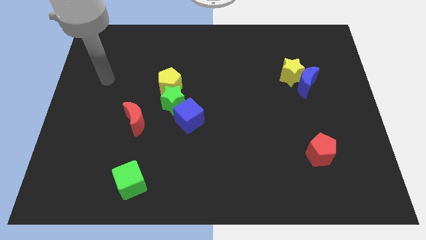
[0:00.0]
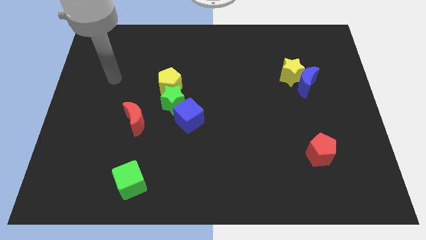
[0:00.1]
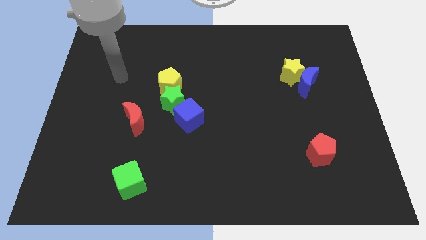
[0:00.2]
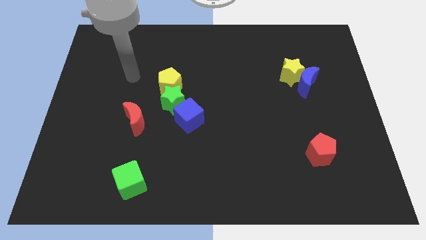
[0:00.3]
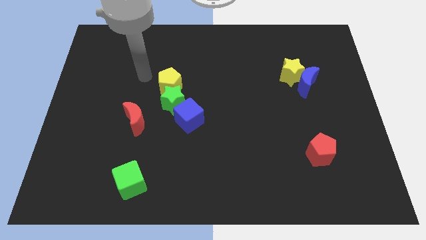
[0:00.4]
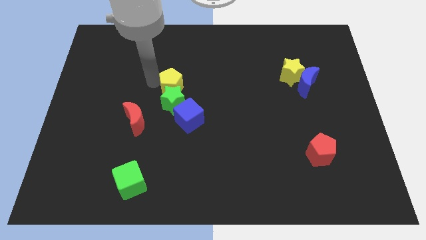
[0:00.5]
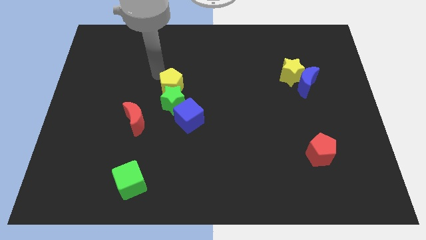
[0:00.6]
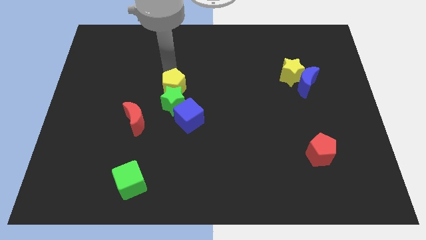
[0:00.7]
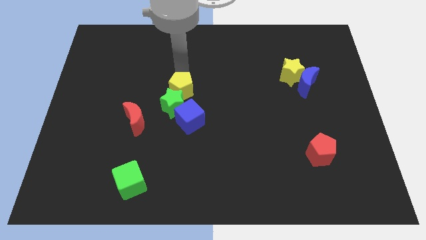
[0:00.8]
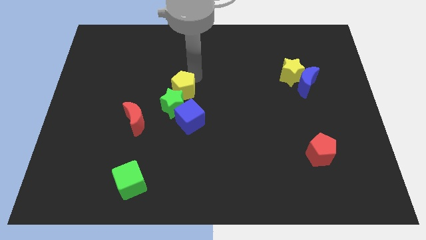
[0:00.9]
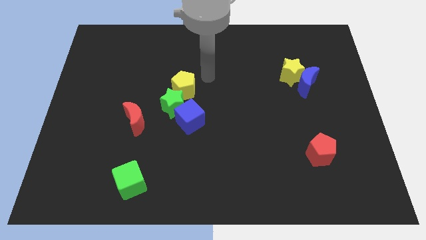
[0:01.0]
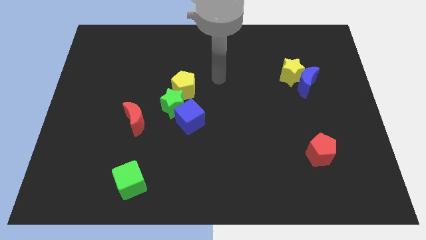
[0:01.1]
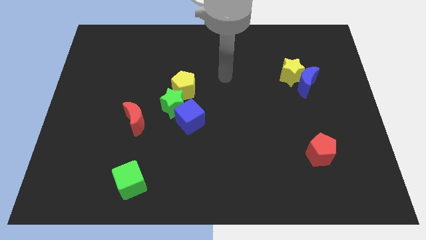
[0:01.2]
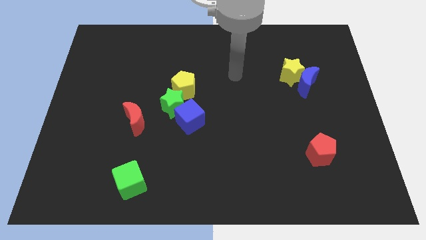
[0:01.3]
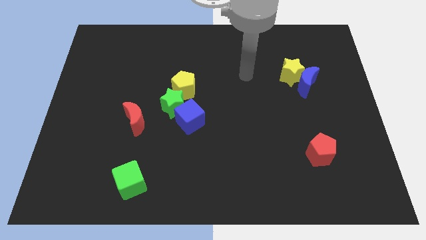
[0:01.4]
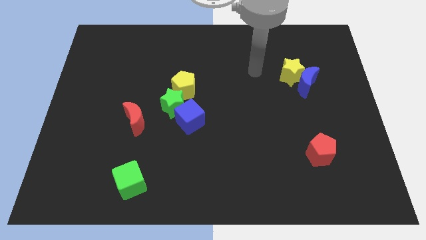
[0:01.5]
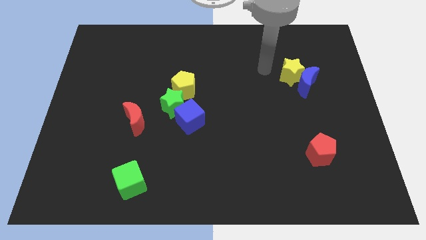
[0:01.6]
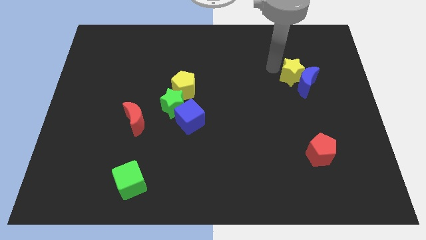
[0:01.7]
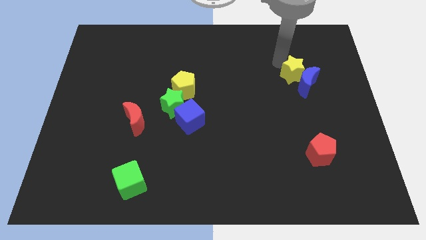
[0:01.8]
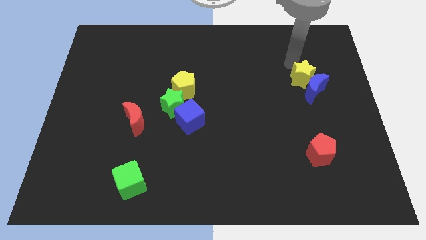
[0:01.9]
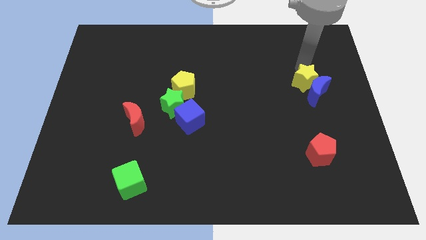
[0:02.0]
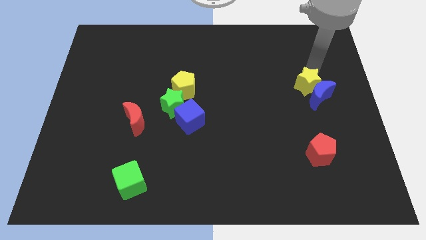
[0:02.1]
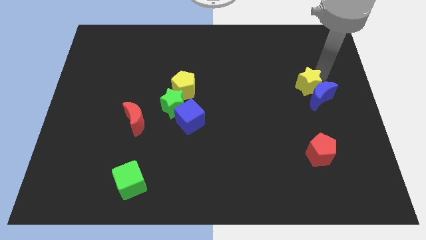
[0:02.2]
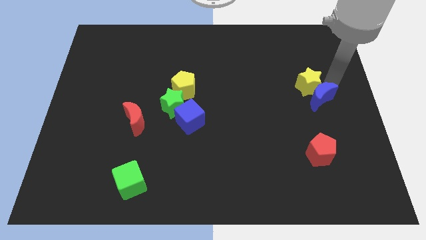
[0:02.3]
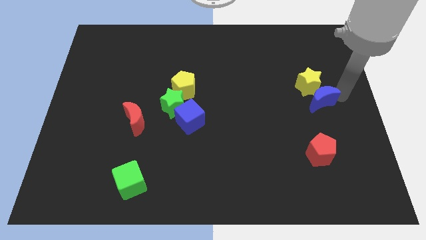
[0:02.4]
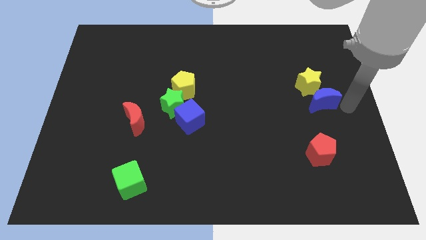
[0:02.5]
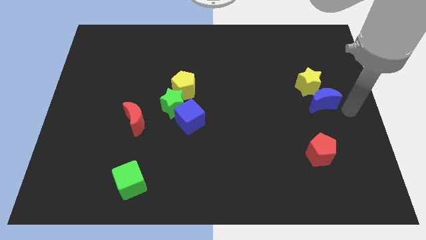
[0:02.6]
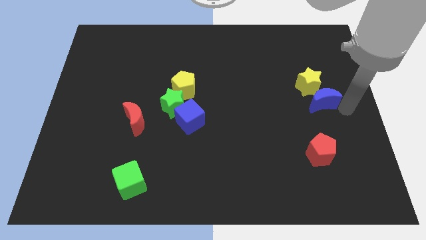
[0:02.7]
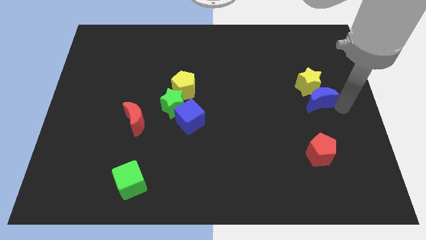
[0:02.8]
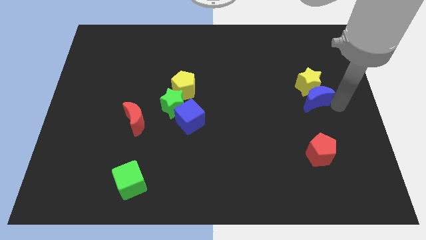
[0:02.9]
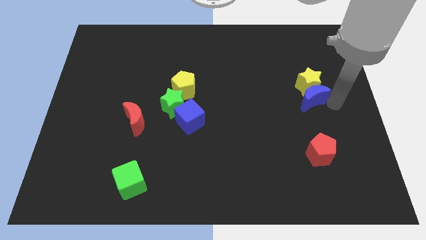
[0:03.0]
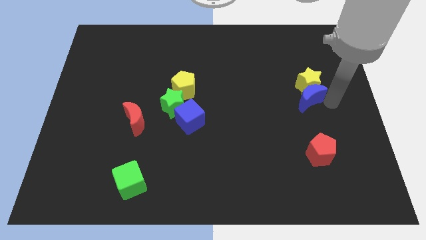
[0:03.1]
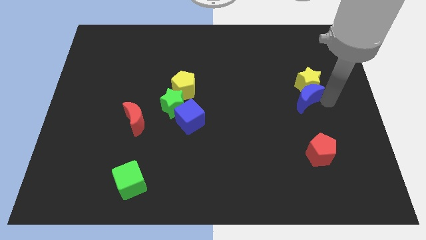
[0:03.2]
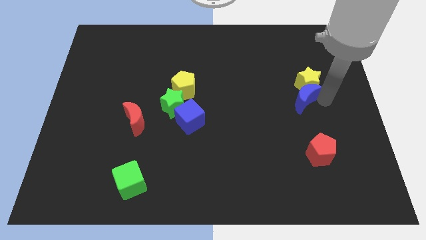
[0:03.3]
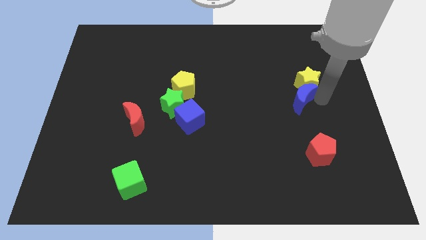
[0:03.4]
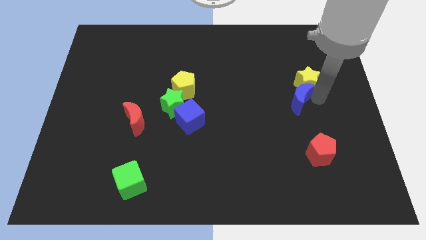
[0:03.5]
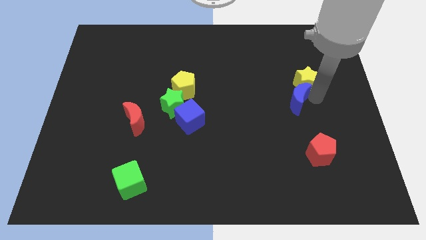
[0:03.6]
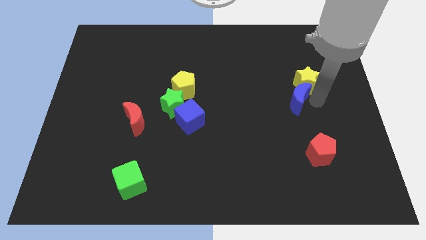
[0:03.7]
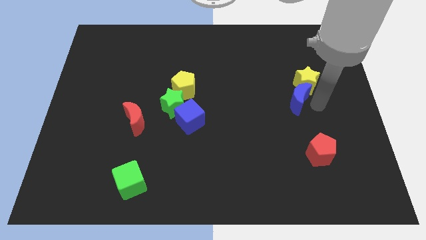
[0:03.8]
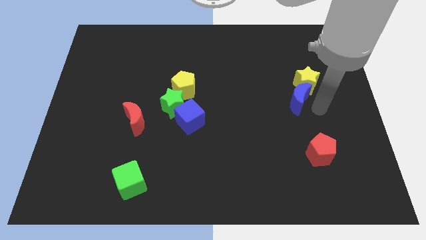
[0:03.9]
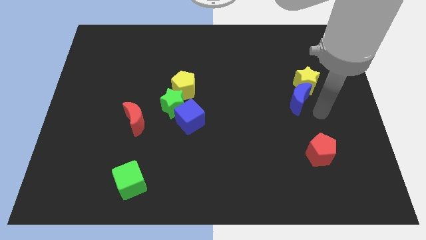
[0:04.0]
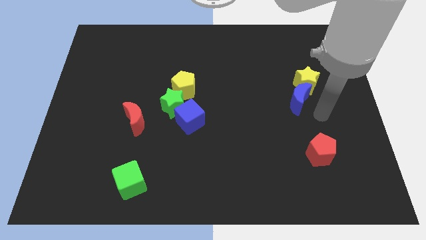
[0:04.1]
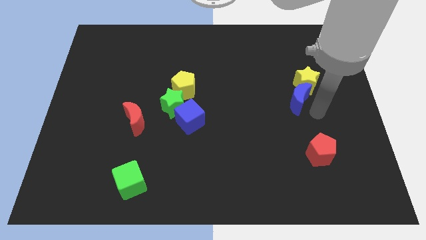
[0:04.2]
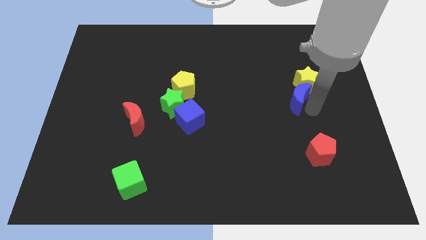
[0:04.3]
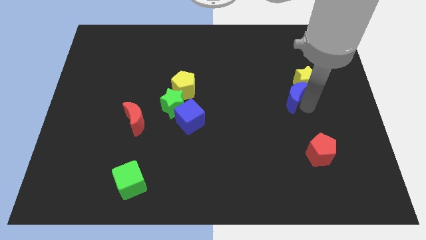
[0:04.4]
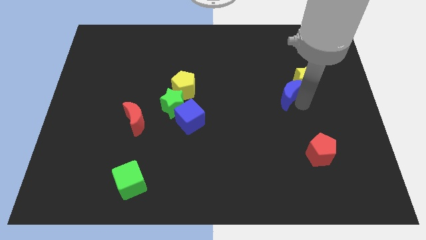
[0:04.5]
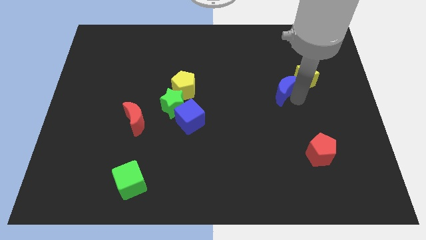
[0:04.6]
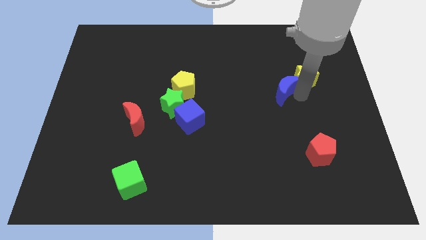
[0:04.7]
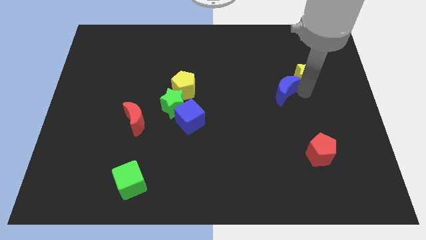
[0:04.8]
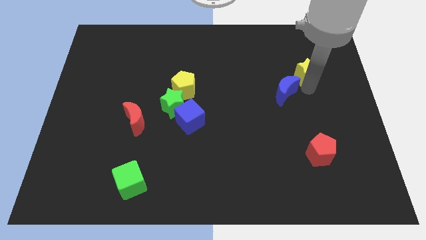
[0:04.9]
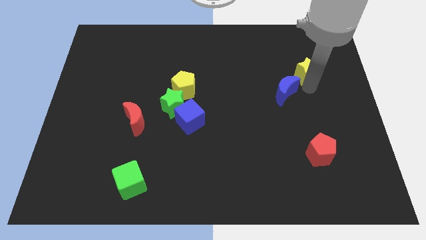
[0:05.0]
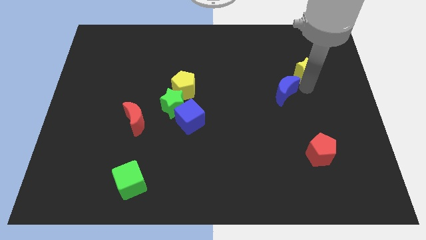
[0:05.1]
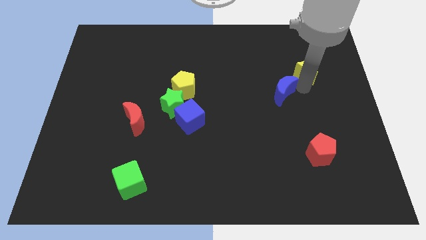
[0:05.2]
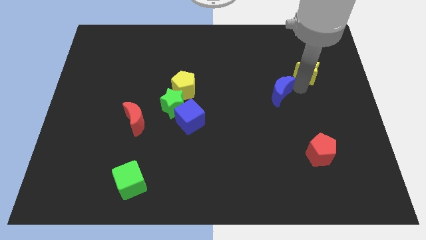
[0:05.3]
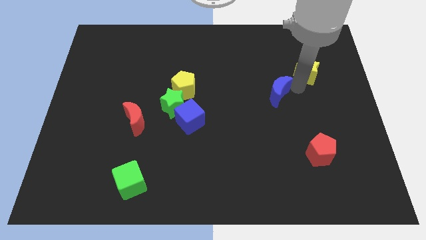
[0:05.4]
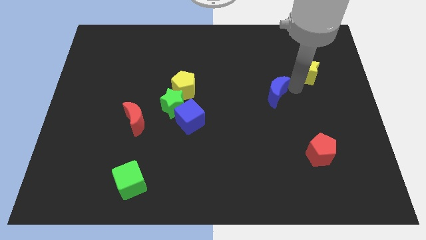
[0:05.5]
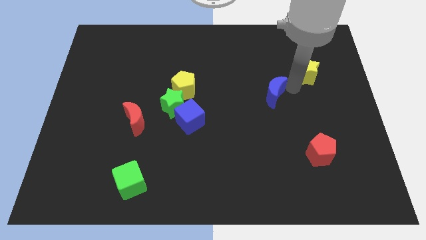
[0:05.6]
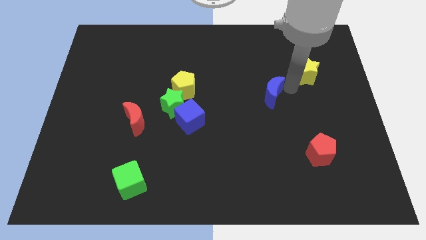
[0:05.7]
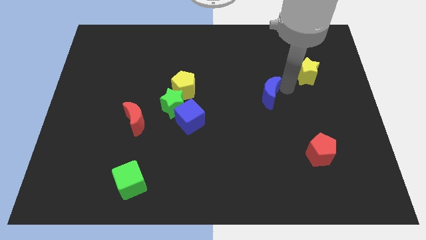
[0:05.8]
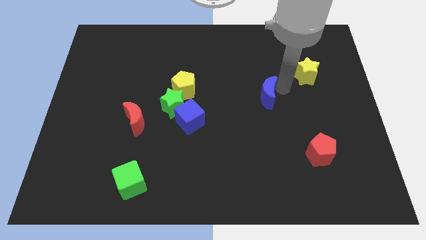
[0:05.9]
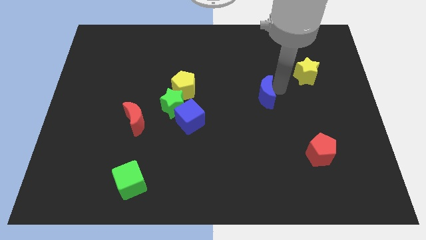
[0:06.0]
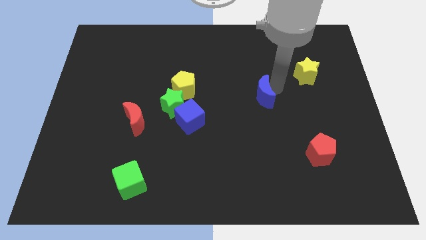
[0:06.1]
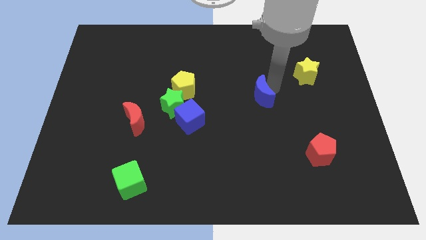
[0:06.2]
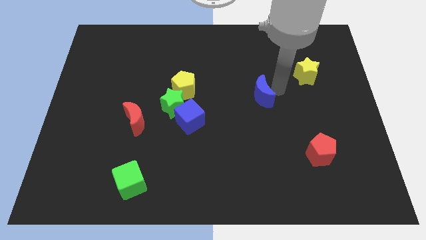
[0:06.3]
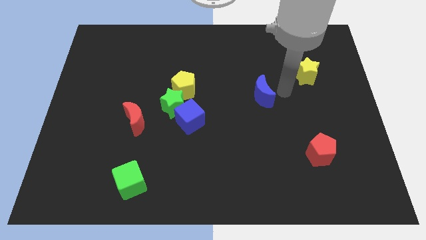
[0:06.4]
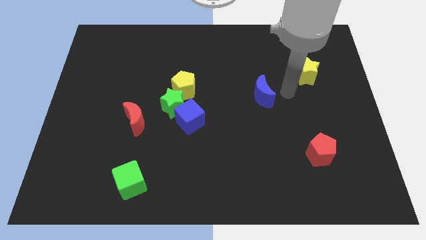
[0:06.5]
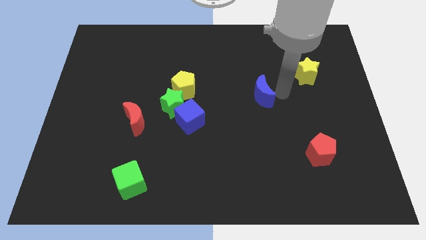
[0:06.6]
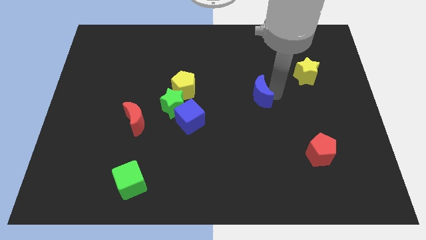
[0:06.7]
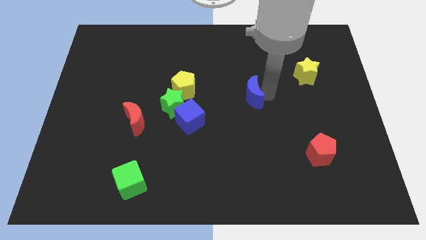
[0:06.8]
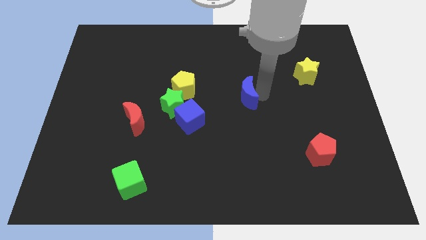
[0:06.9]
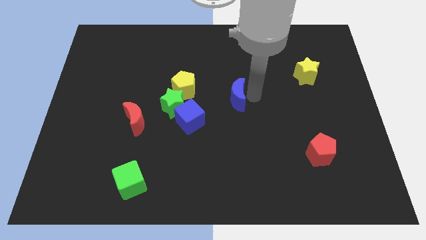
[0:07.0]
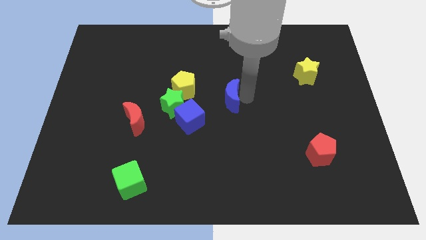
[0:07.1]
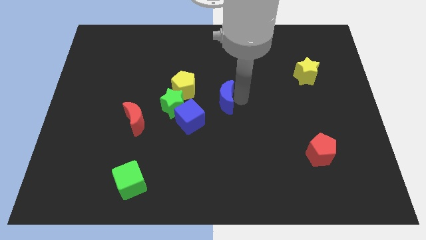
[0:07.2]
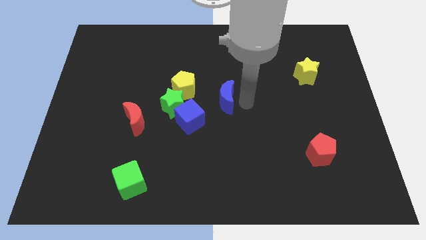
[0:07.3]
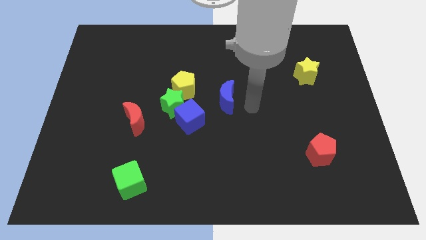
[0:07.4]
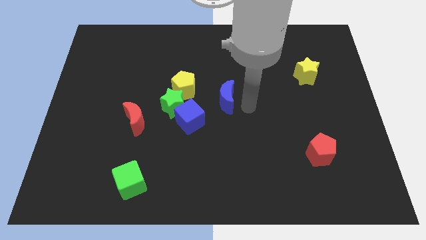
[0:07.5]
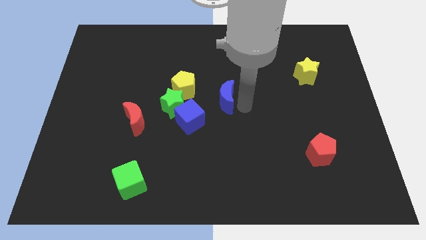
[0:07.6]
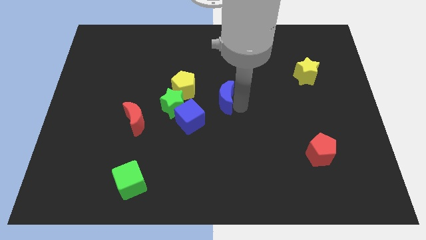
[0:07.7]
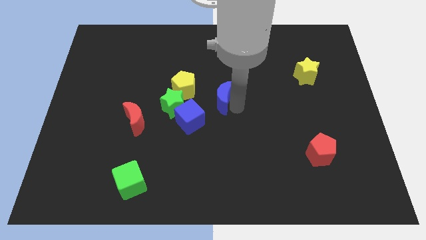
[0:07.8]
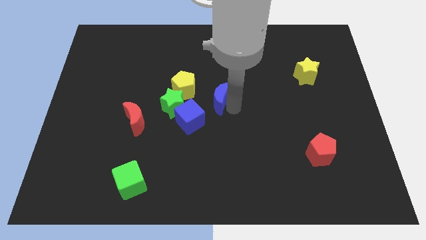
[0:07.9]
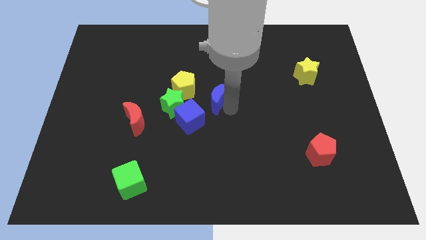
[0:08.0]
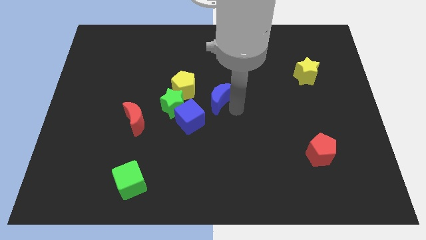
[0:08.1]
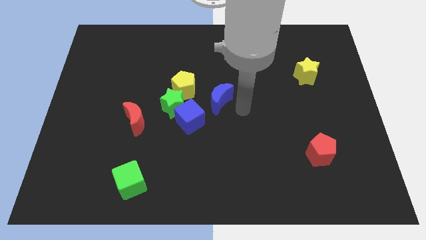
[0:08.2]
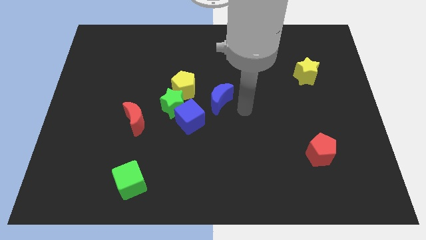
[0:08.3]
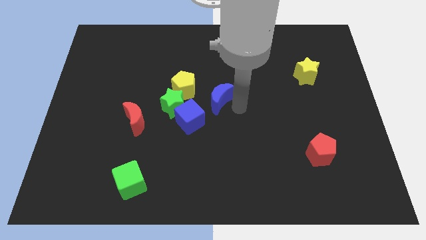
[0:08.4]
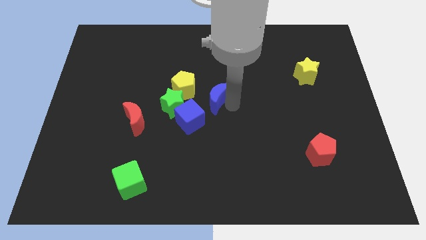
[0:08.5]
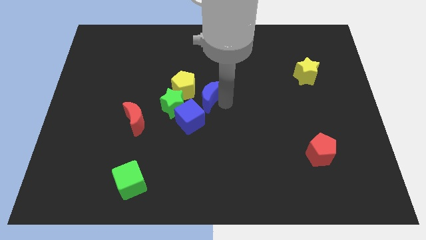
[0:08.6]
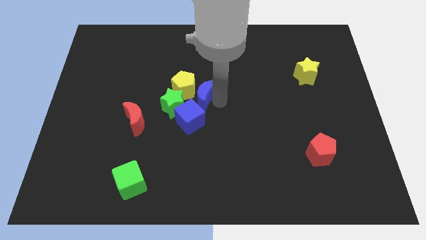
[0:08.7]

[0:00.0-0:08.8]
move the blue moon towards the yellow pentagon
